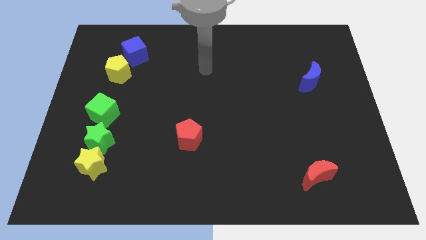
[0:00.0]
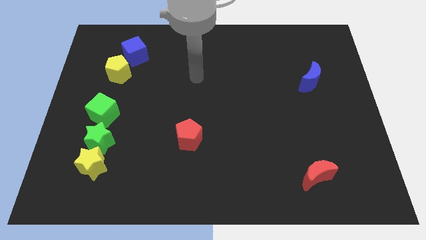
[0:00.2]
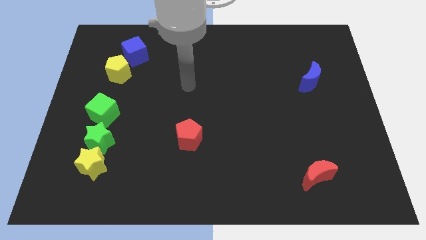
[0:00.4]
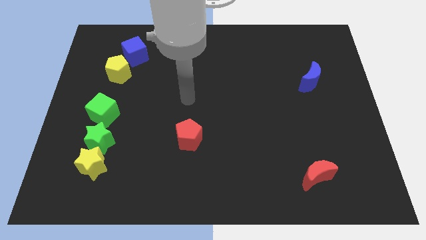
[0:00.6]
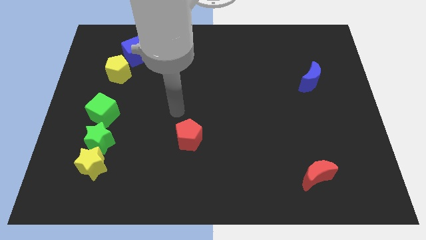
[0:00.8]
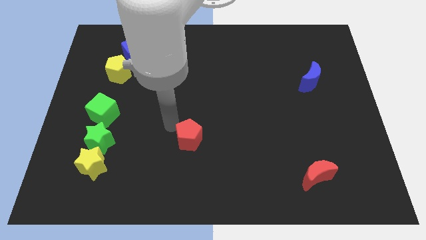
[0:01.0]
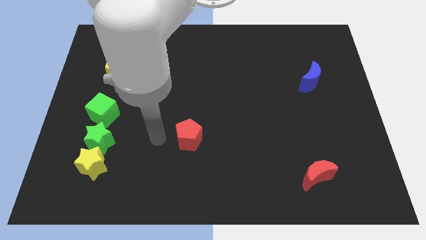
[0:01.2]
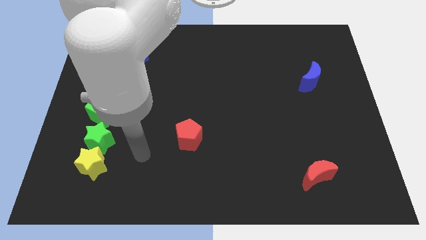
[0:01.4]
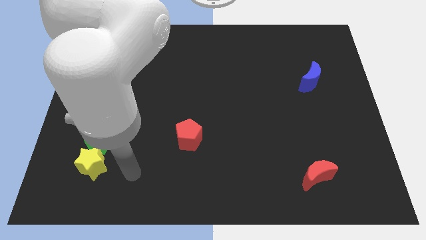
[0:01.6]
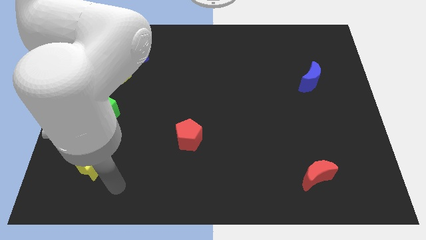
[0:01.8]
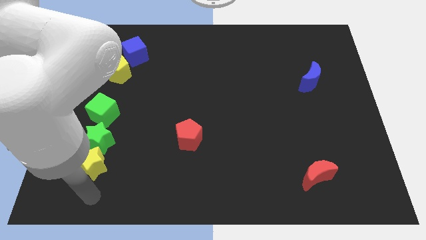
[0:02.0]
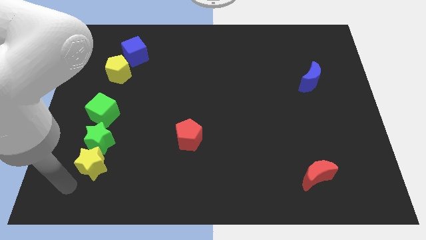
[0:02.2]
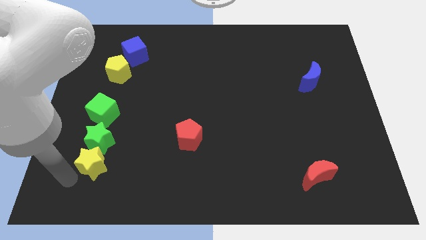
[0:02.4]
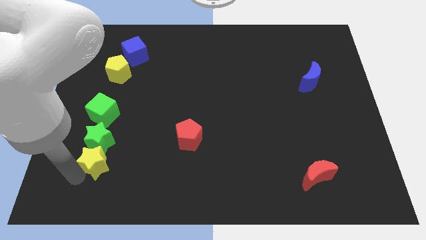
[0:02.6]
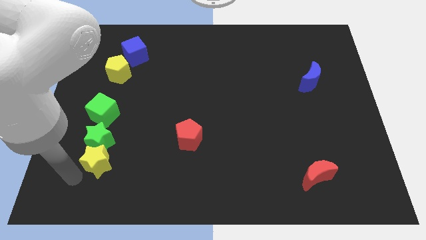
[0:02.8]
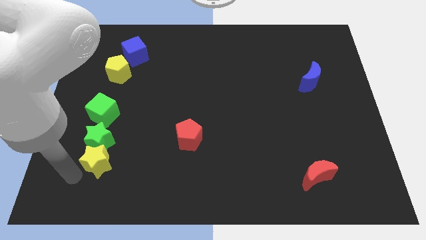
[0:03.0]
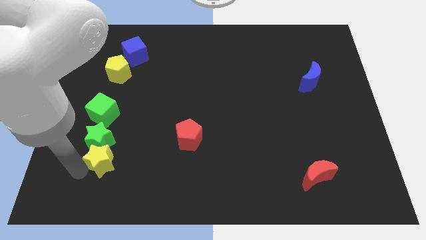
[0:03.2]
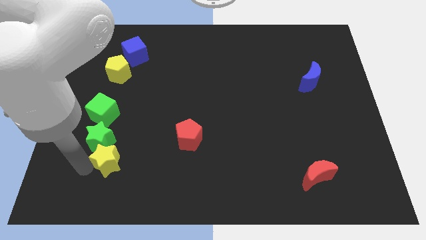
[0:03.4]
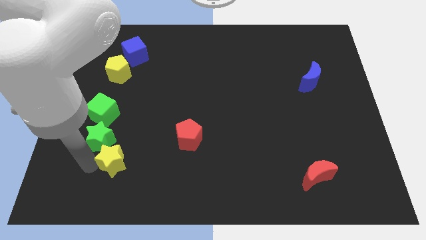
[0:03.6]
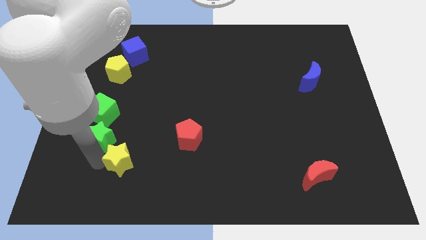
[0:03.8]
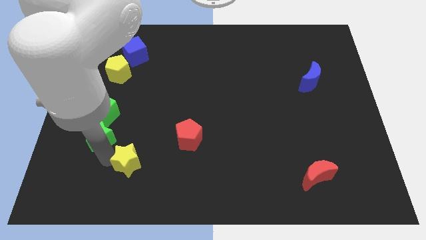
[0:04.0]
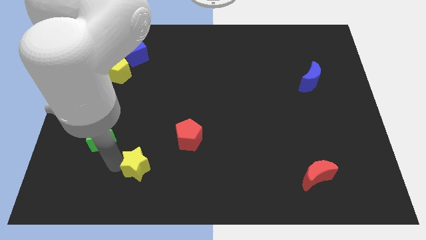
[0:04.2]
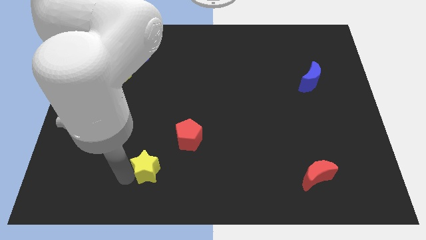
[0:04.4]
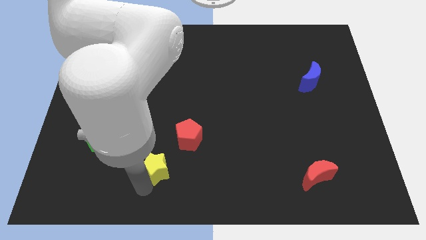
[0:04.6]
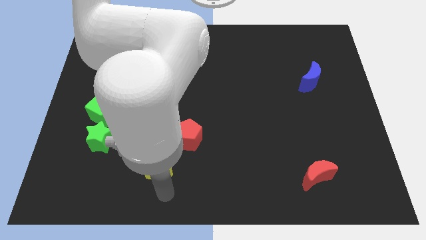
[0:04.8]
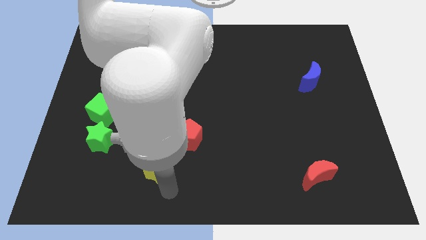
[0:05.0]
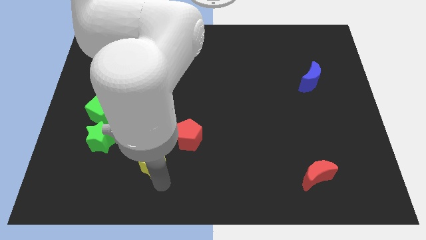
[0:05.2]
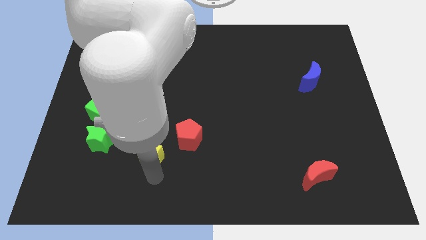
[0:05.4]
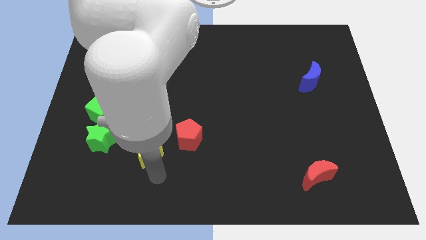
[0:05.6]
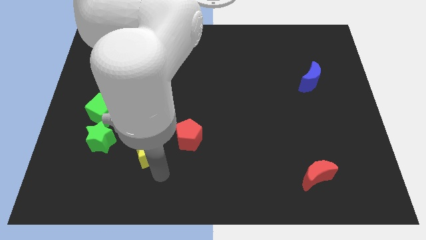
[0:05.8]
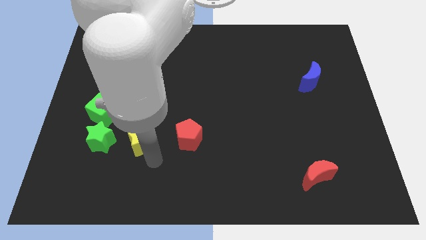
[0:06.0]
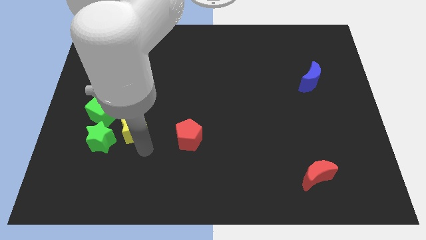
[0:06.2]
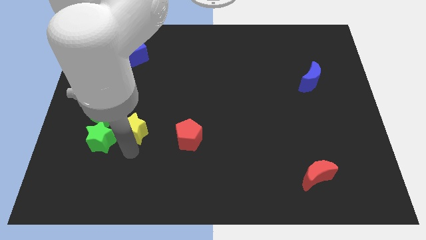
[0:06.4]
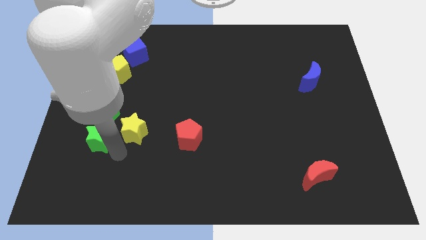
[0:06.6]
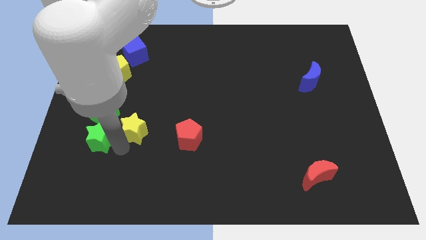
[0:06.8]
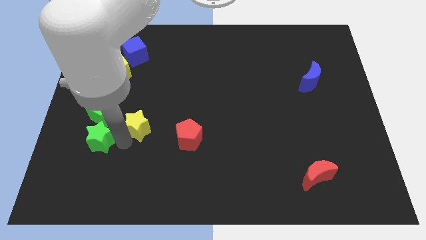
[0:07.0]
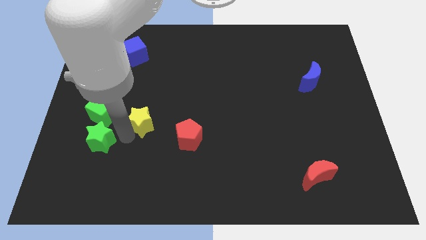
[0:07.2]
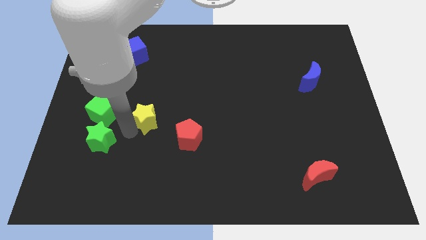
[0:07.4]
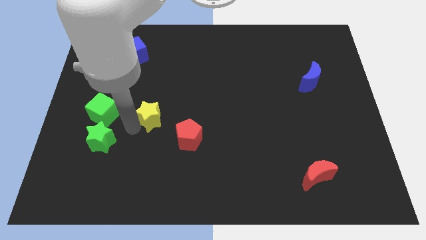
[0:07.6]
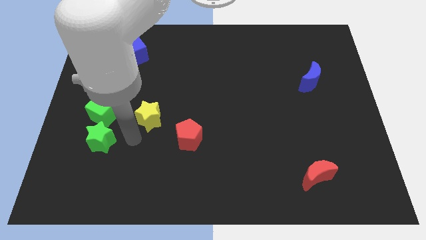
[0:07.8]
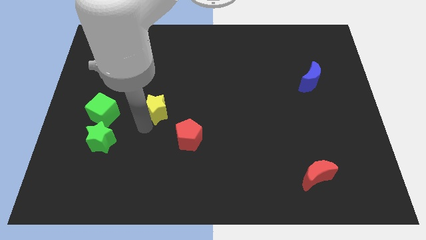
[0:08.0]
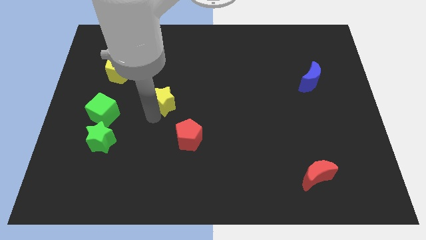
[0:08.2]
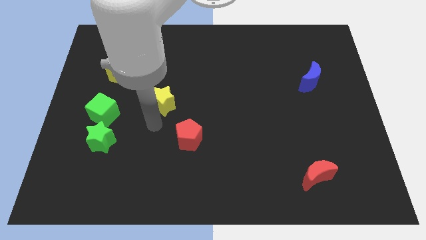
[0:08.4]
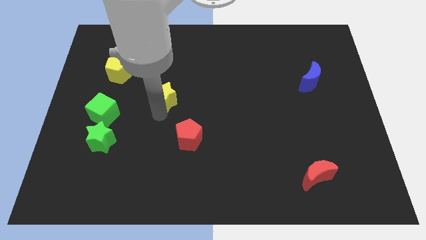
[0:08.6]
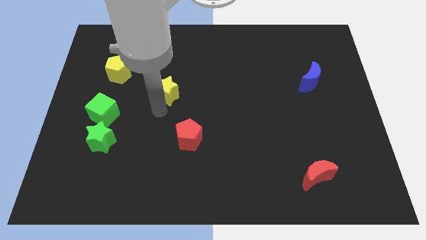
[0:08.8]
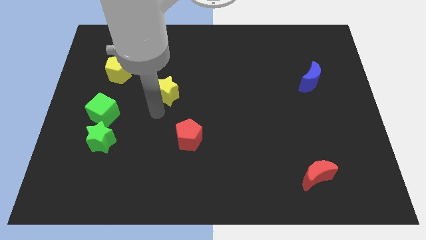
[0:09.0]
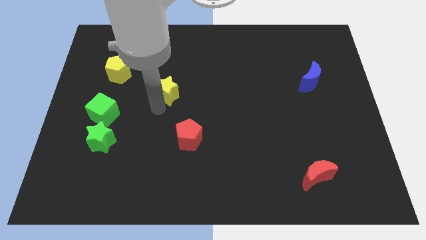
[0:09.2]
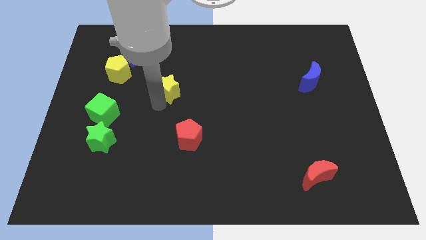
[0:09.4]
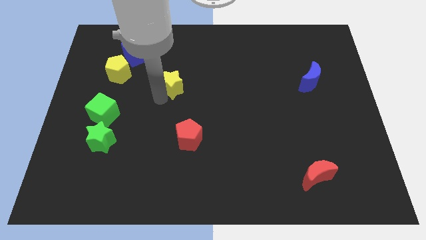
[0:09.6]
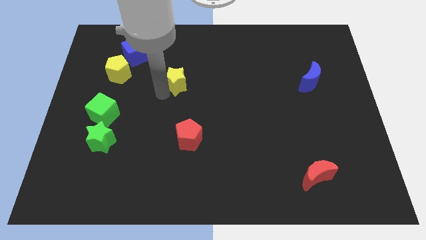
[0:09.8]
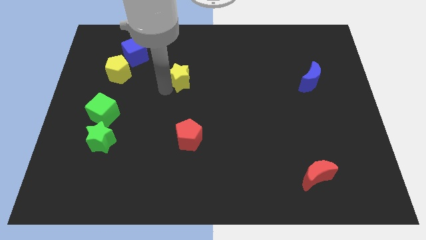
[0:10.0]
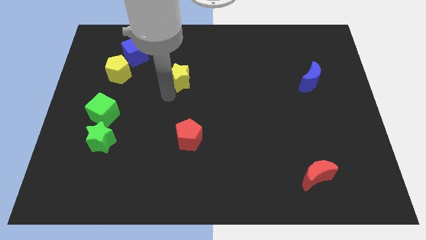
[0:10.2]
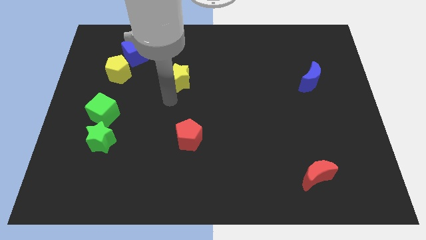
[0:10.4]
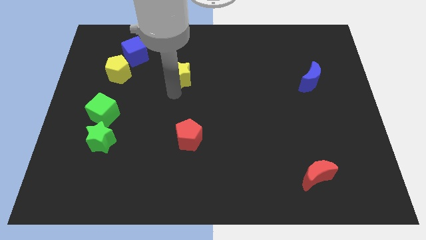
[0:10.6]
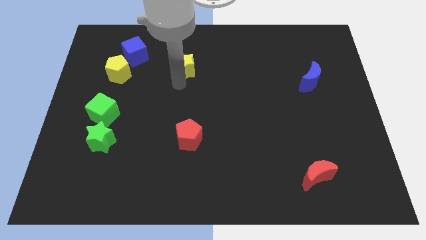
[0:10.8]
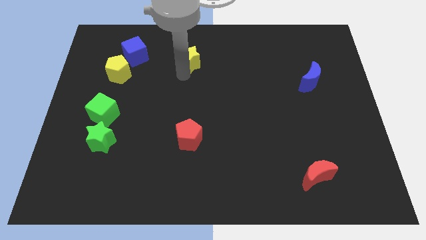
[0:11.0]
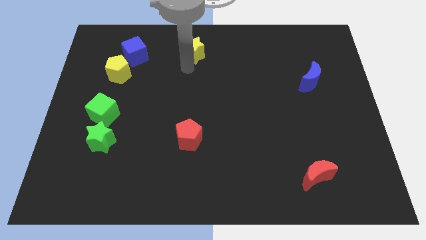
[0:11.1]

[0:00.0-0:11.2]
move the yellow star to the top
